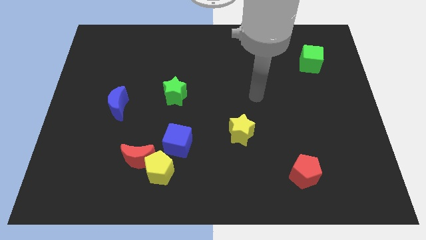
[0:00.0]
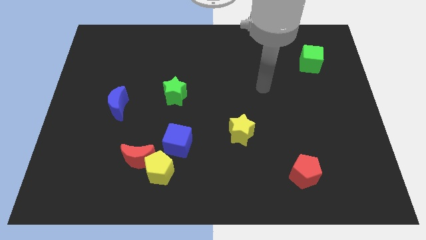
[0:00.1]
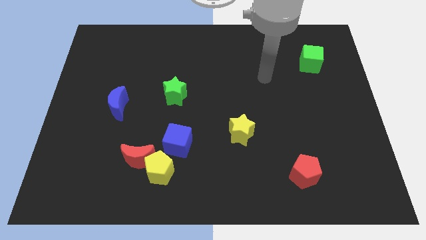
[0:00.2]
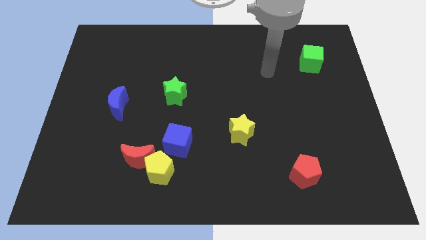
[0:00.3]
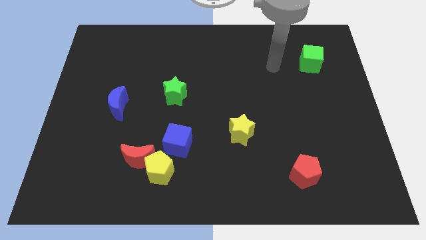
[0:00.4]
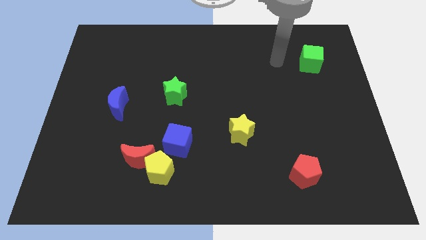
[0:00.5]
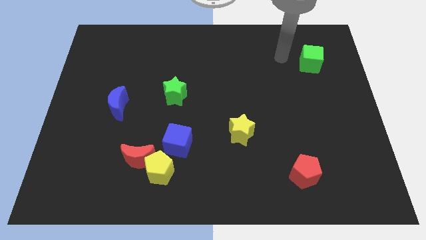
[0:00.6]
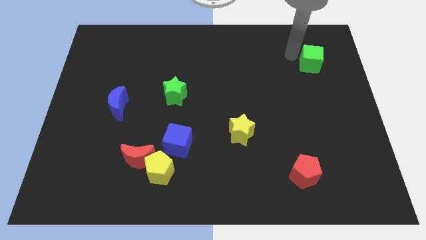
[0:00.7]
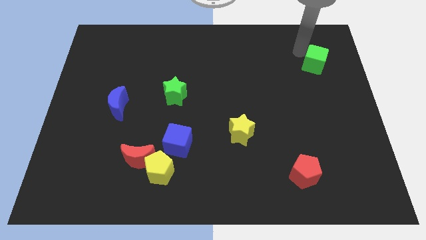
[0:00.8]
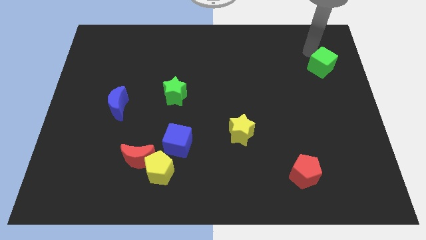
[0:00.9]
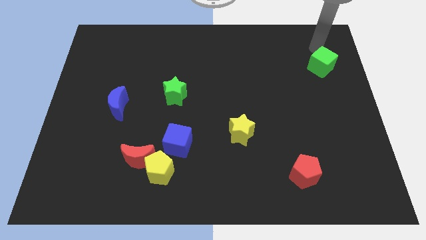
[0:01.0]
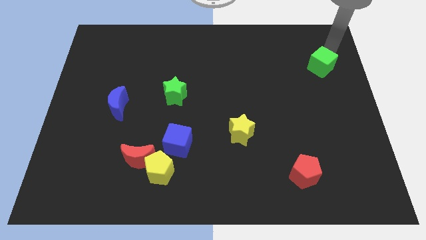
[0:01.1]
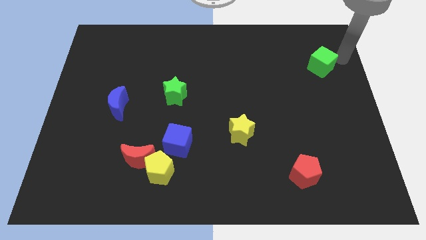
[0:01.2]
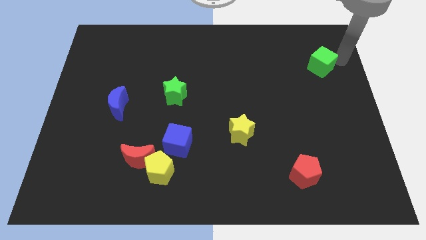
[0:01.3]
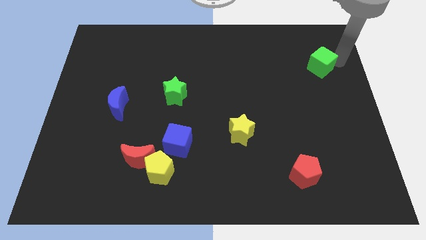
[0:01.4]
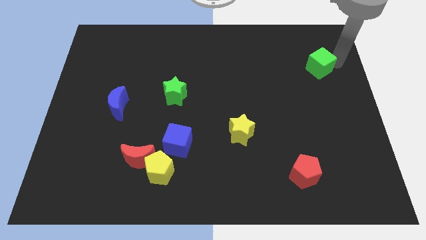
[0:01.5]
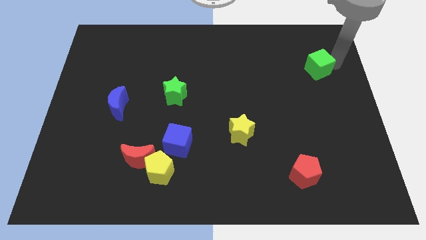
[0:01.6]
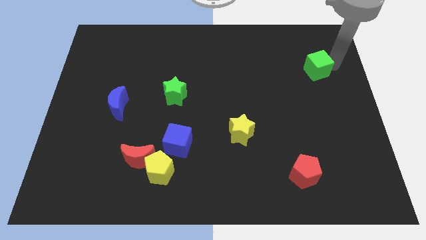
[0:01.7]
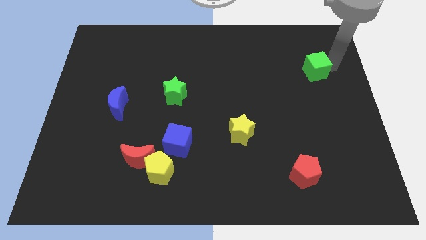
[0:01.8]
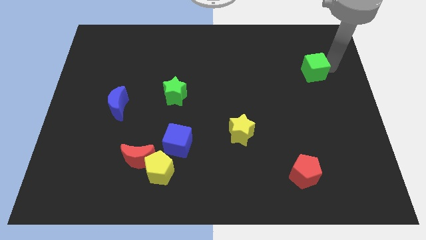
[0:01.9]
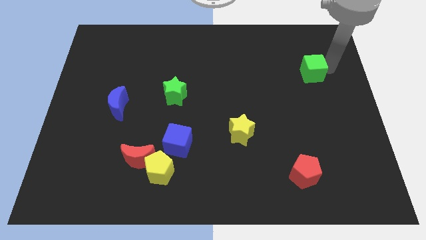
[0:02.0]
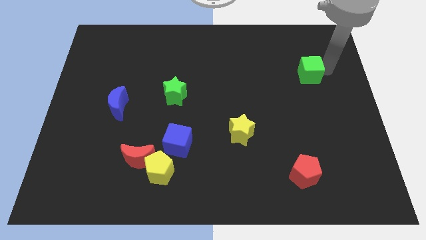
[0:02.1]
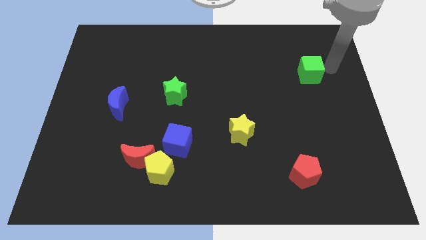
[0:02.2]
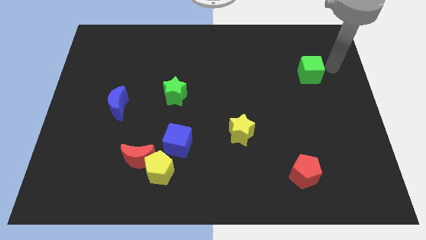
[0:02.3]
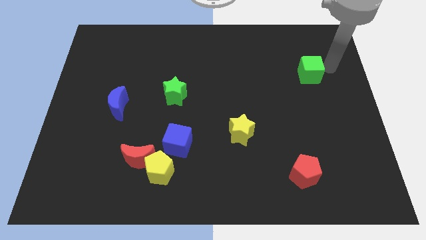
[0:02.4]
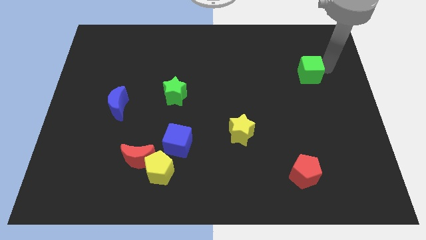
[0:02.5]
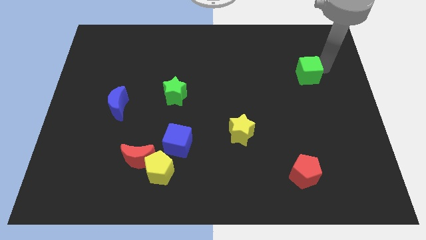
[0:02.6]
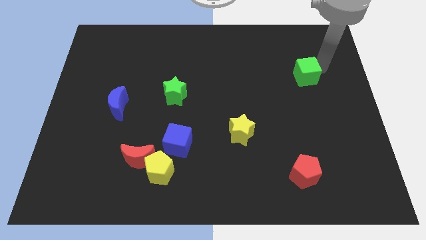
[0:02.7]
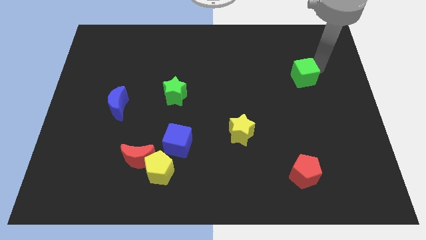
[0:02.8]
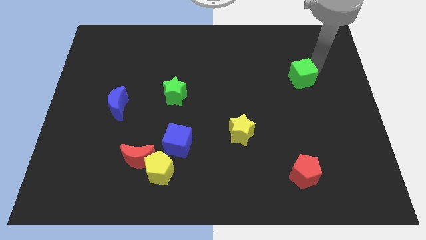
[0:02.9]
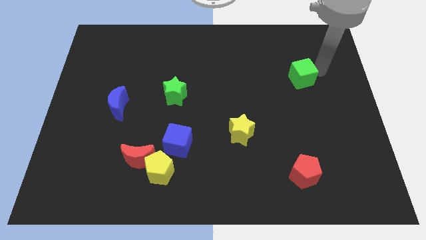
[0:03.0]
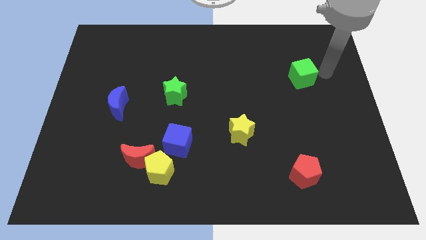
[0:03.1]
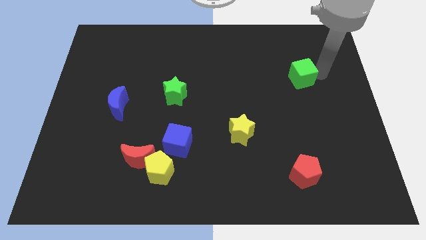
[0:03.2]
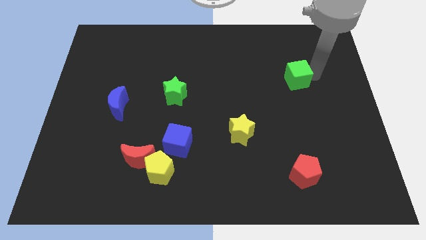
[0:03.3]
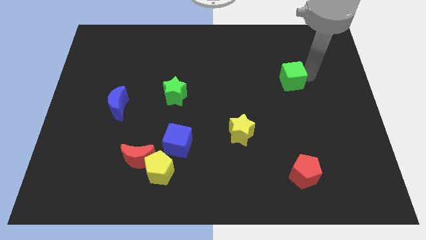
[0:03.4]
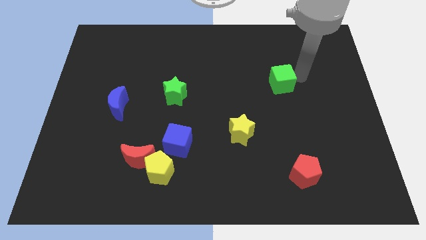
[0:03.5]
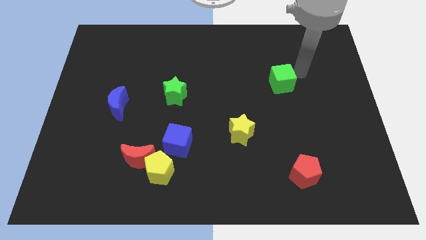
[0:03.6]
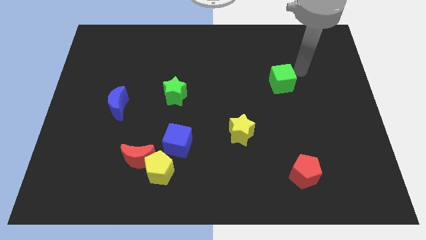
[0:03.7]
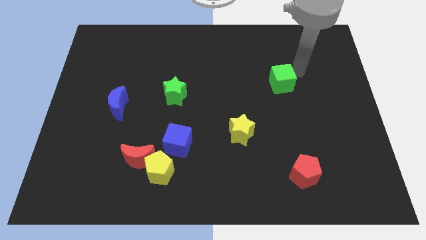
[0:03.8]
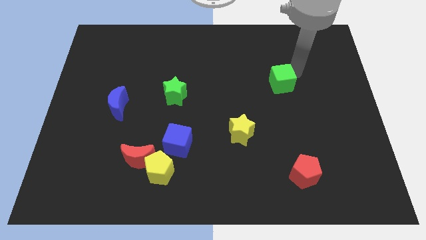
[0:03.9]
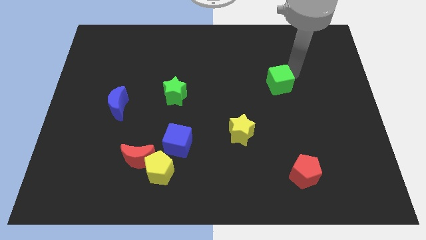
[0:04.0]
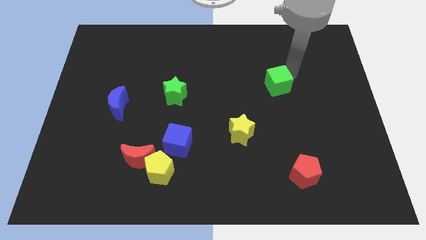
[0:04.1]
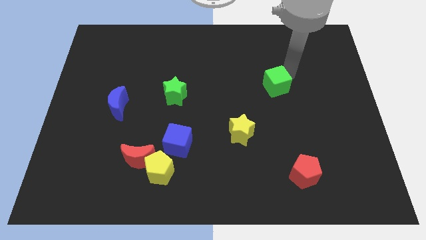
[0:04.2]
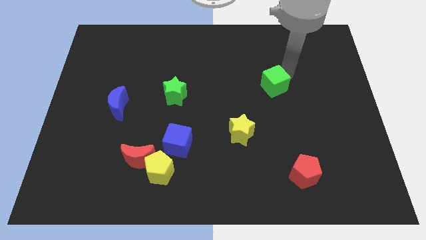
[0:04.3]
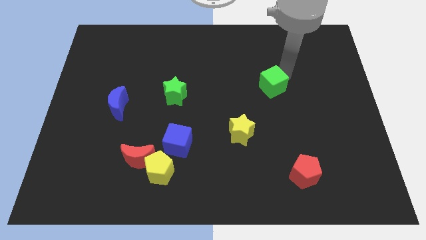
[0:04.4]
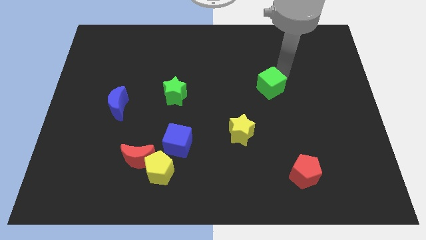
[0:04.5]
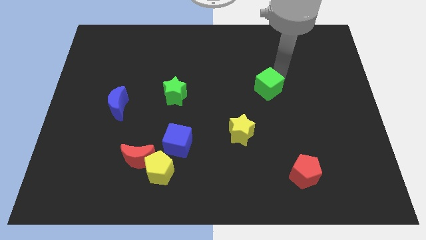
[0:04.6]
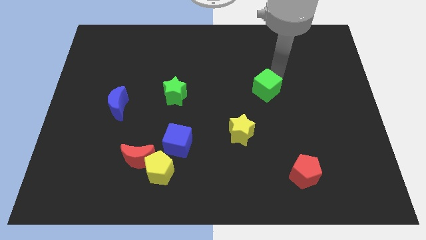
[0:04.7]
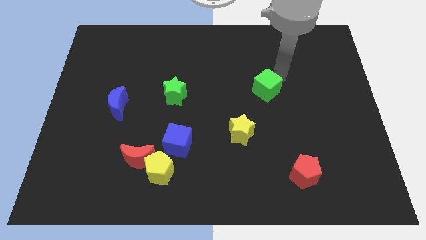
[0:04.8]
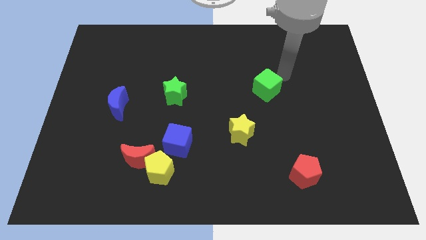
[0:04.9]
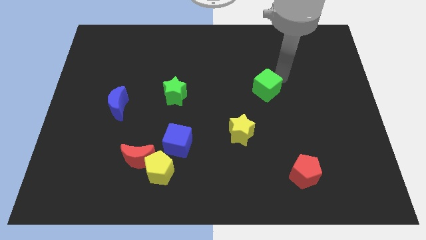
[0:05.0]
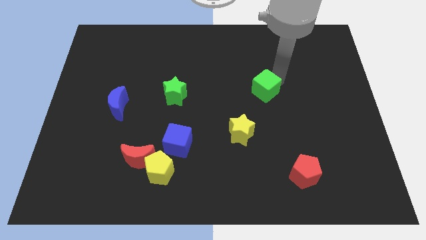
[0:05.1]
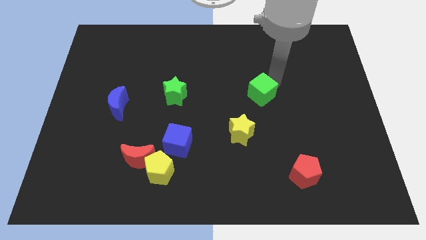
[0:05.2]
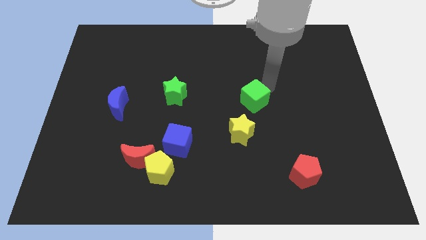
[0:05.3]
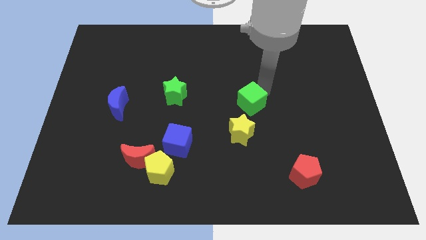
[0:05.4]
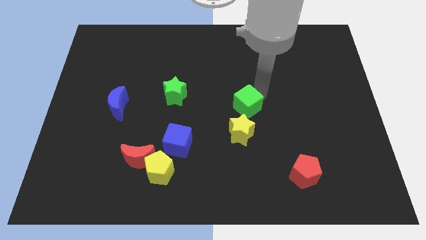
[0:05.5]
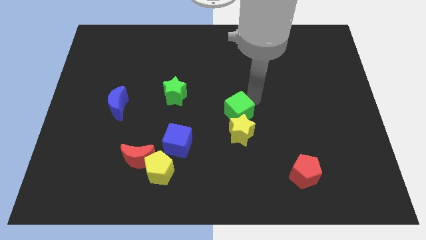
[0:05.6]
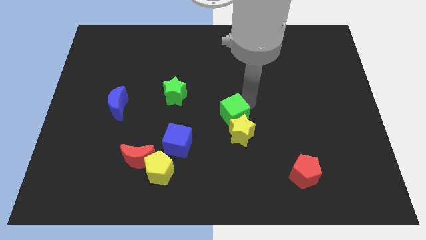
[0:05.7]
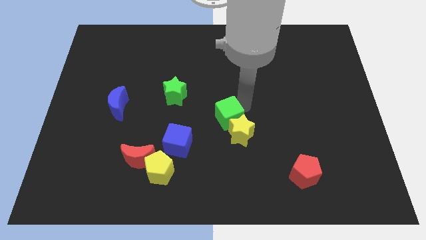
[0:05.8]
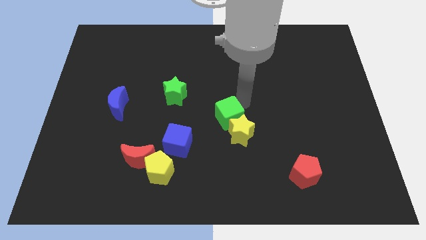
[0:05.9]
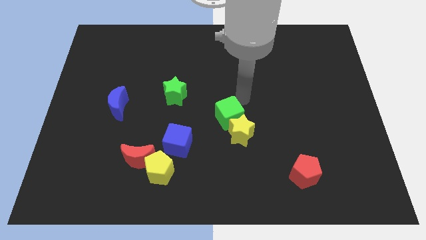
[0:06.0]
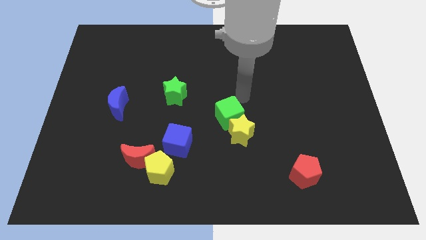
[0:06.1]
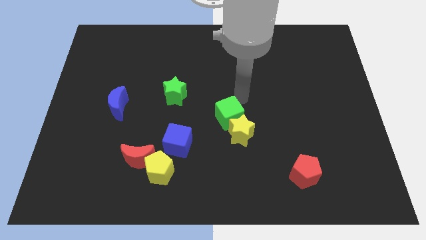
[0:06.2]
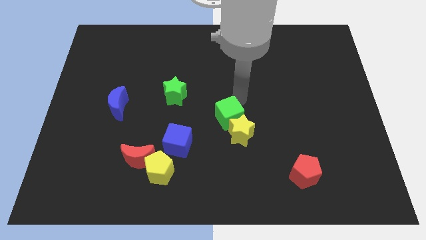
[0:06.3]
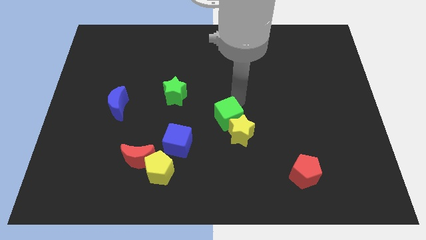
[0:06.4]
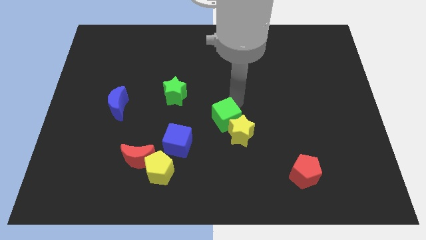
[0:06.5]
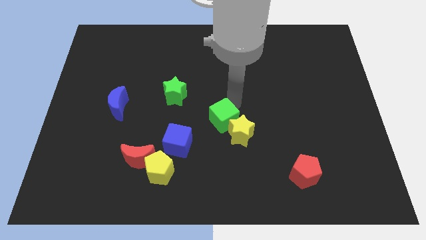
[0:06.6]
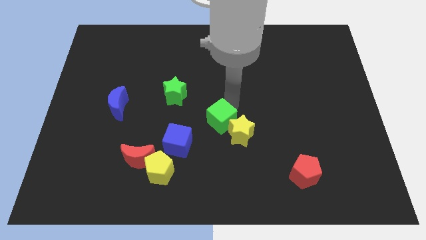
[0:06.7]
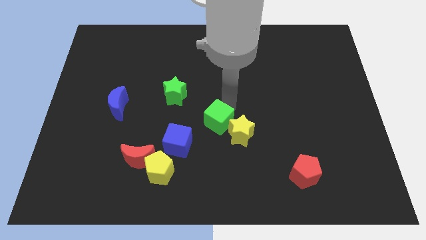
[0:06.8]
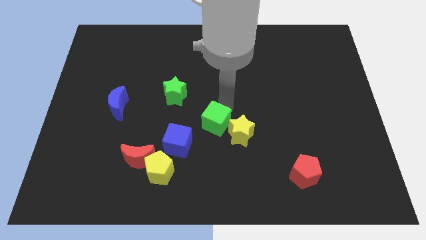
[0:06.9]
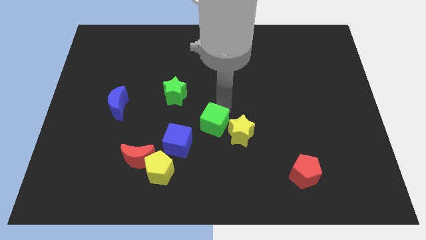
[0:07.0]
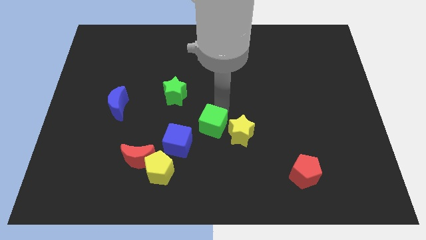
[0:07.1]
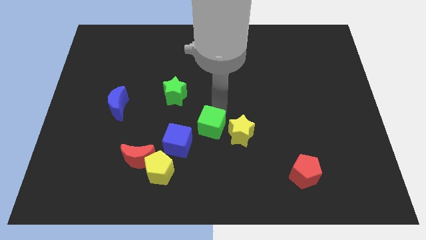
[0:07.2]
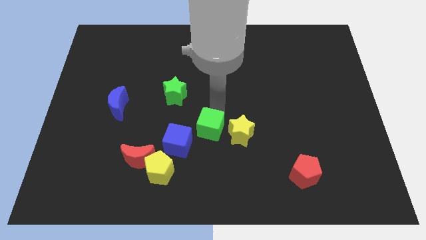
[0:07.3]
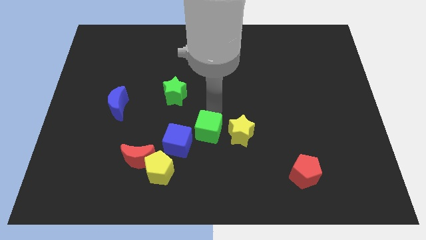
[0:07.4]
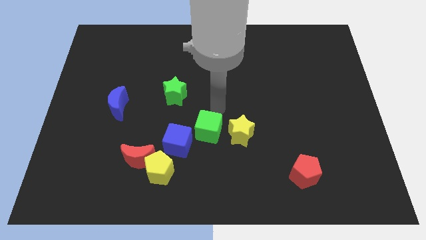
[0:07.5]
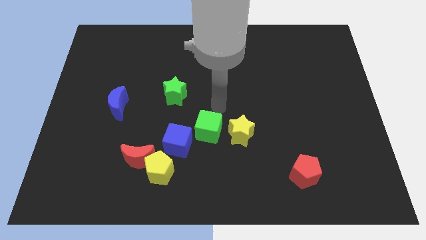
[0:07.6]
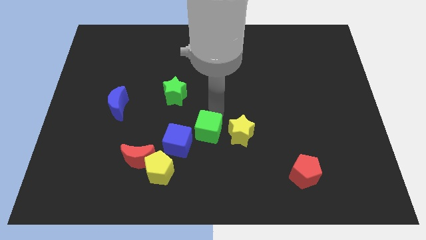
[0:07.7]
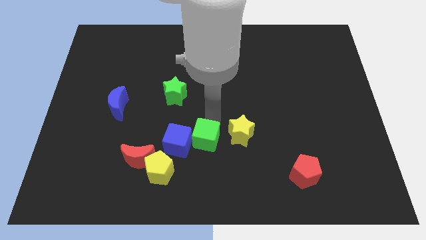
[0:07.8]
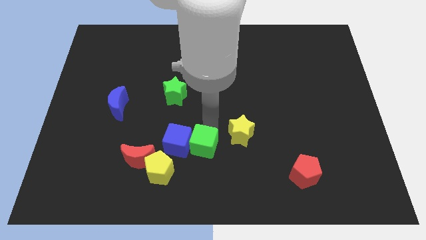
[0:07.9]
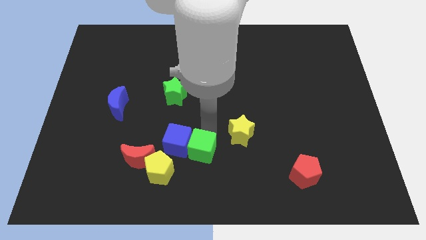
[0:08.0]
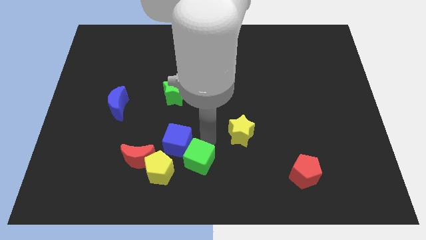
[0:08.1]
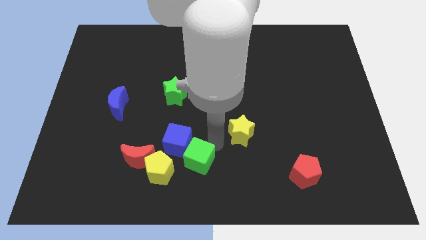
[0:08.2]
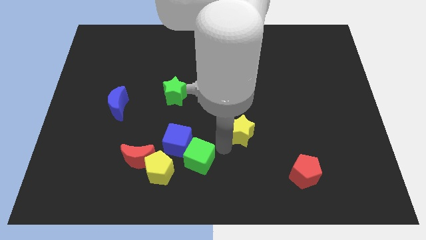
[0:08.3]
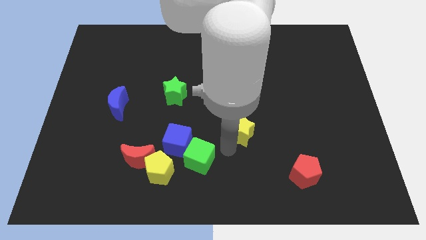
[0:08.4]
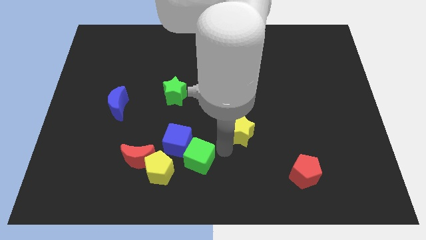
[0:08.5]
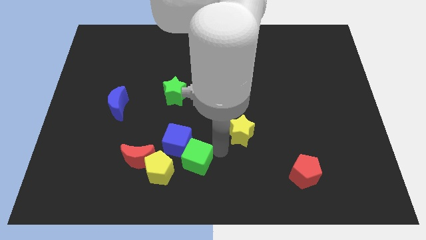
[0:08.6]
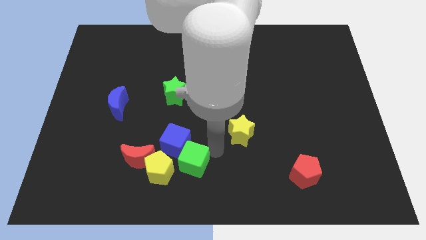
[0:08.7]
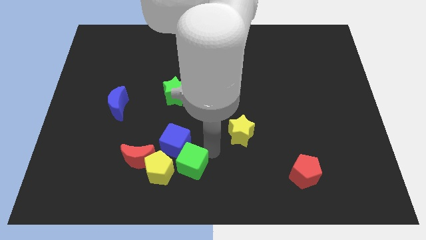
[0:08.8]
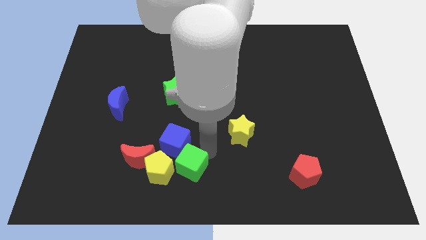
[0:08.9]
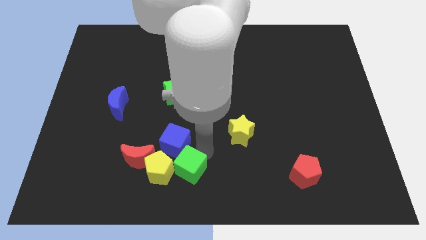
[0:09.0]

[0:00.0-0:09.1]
slide the green cube to the yellow pentagon
